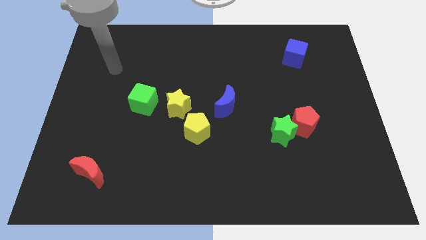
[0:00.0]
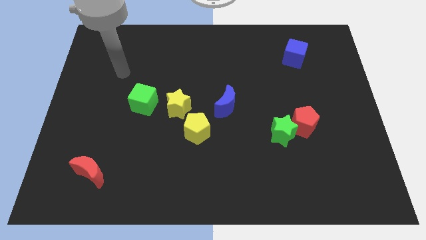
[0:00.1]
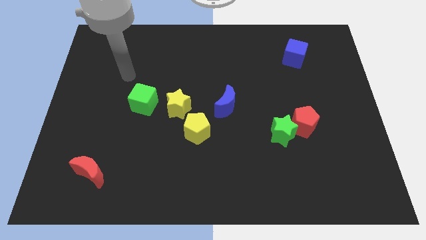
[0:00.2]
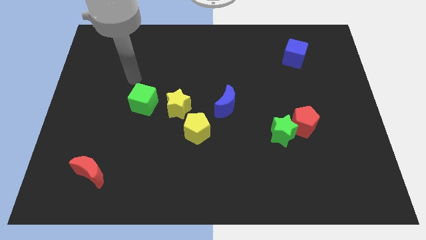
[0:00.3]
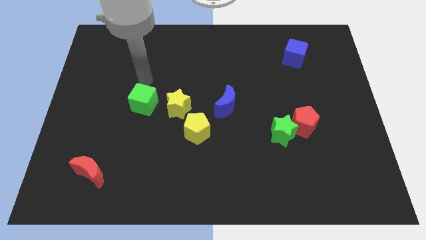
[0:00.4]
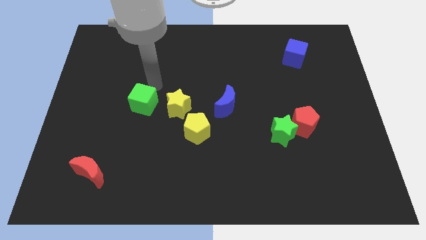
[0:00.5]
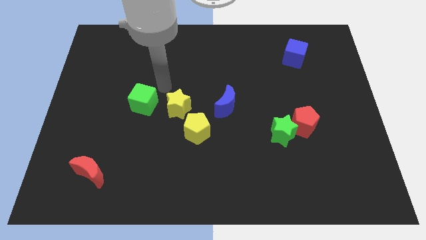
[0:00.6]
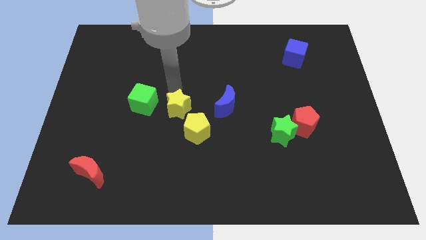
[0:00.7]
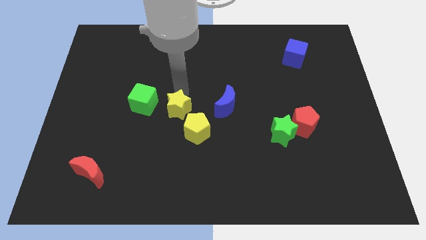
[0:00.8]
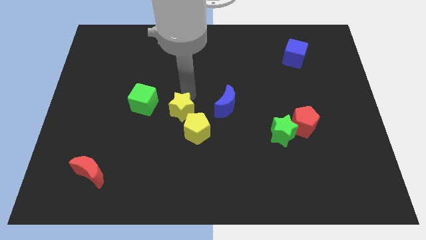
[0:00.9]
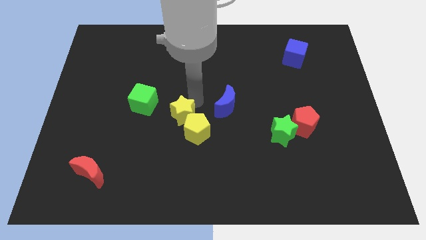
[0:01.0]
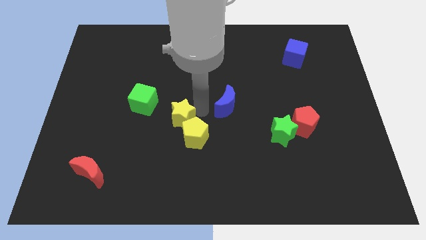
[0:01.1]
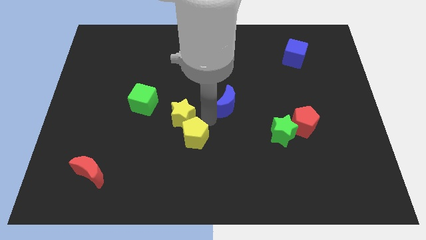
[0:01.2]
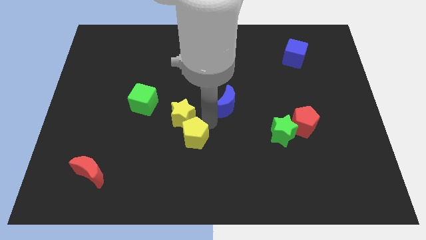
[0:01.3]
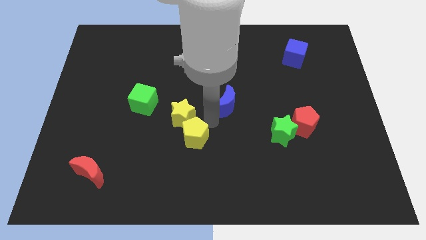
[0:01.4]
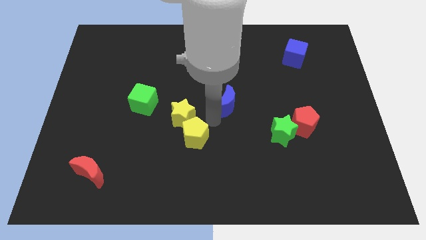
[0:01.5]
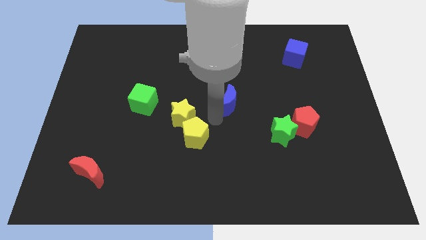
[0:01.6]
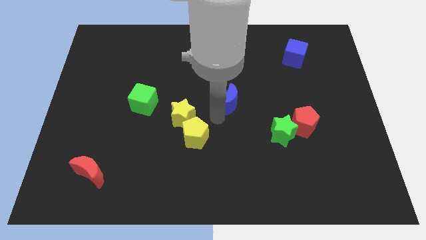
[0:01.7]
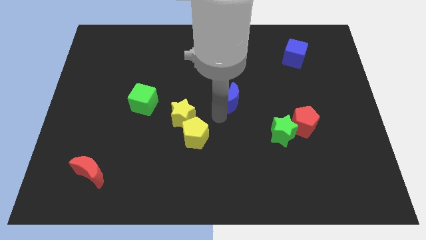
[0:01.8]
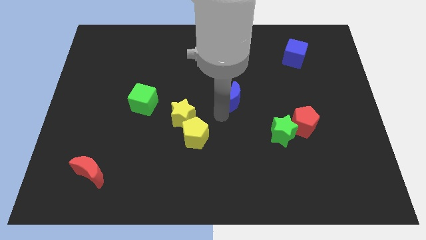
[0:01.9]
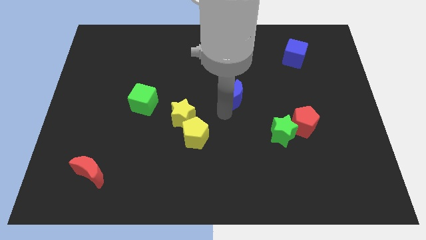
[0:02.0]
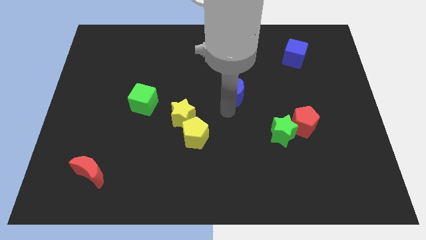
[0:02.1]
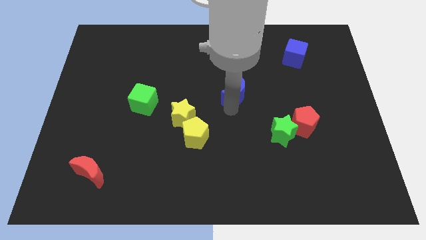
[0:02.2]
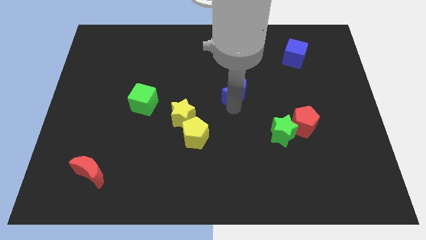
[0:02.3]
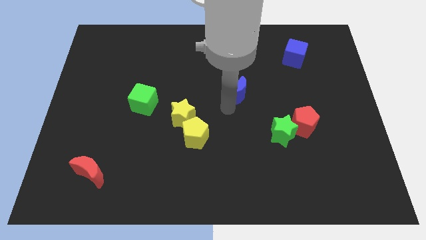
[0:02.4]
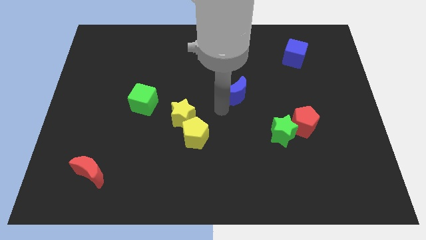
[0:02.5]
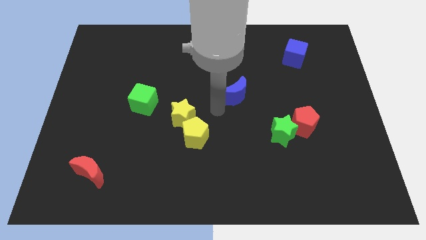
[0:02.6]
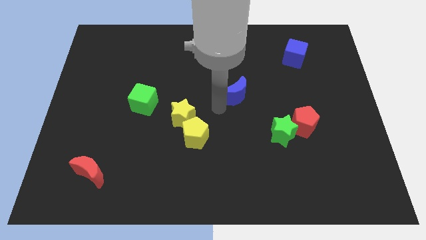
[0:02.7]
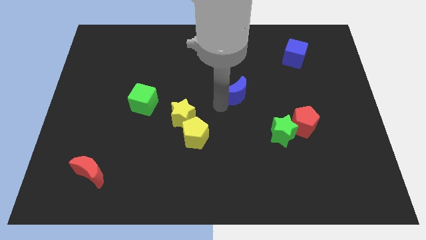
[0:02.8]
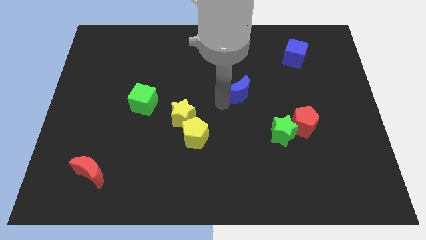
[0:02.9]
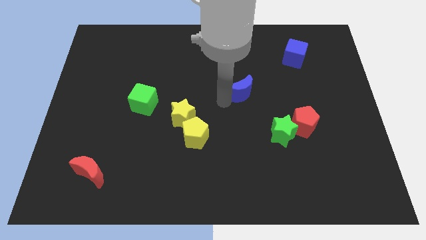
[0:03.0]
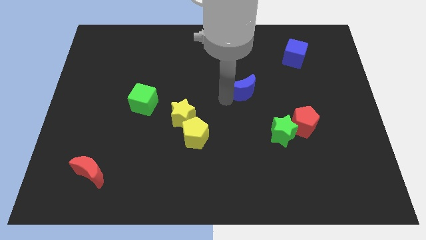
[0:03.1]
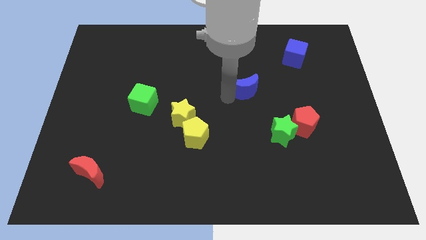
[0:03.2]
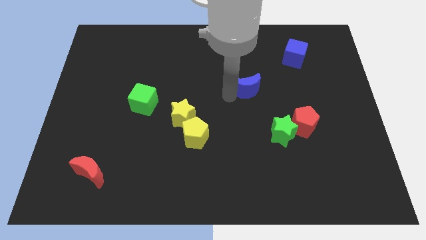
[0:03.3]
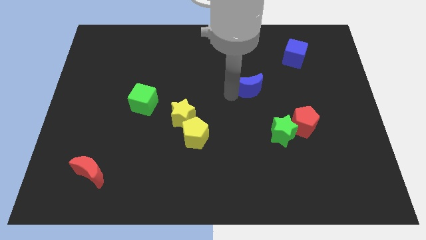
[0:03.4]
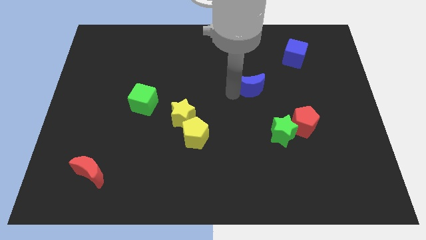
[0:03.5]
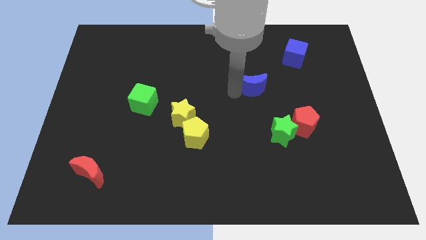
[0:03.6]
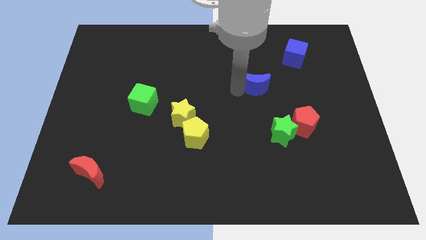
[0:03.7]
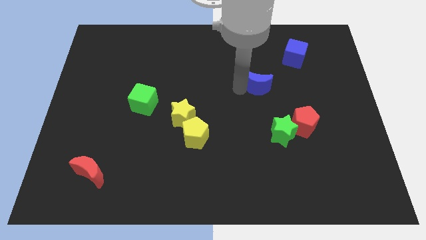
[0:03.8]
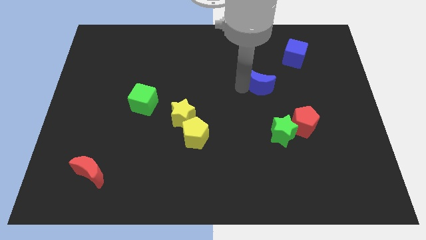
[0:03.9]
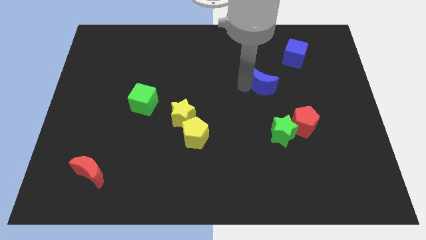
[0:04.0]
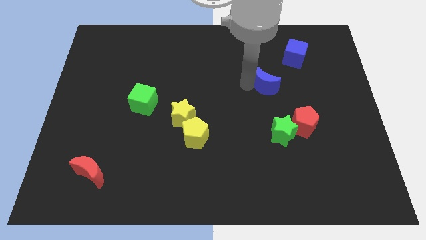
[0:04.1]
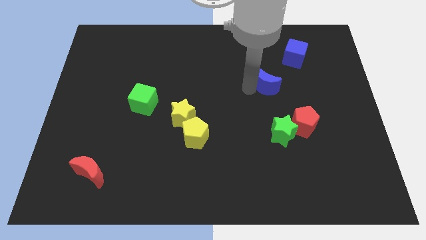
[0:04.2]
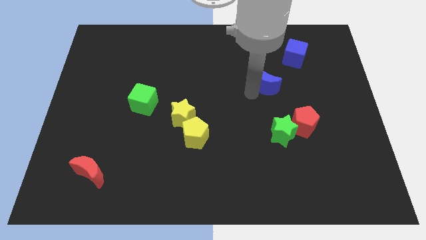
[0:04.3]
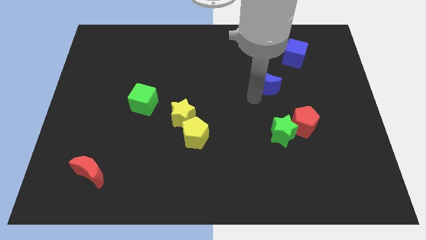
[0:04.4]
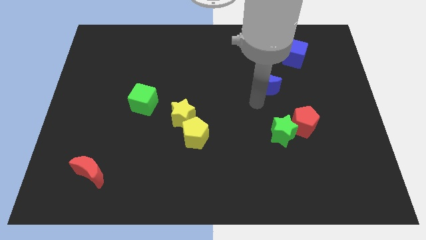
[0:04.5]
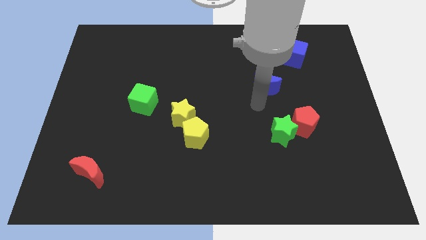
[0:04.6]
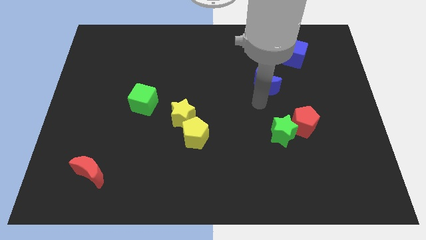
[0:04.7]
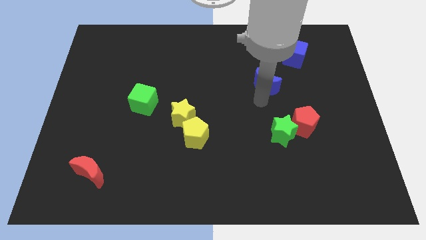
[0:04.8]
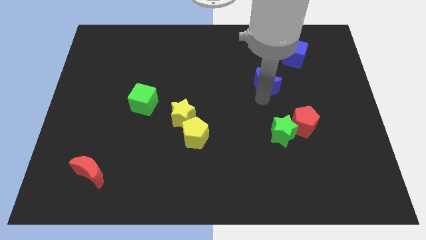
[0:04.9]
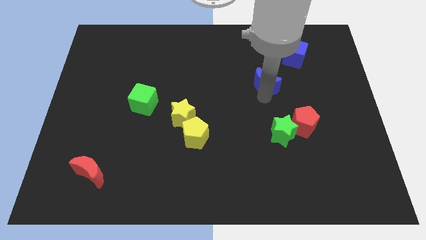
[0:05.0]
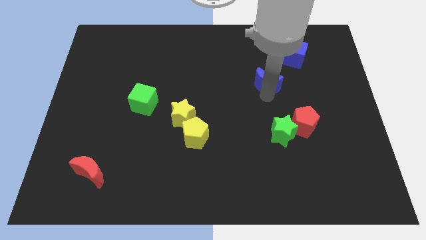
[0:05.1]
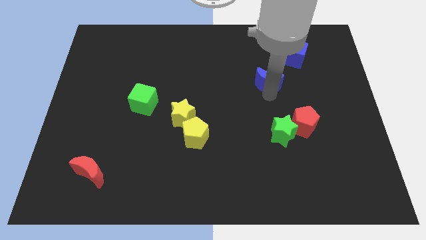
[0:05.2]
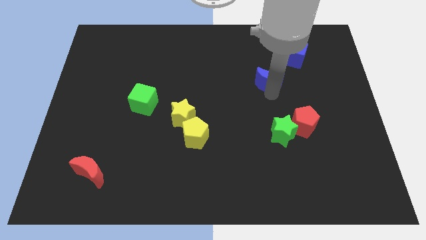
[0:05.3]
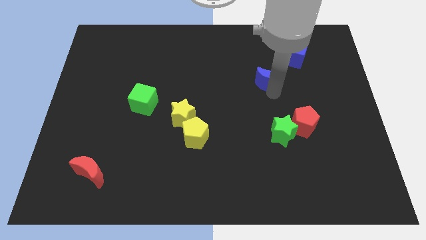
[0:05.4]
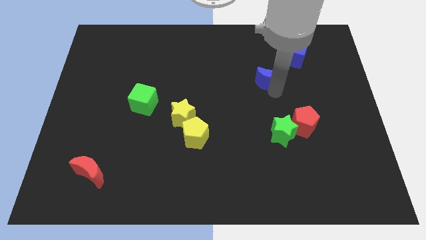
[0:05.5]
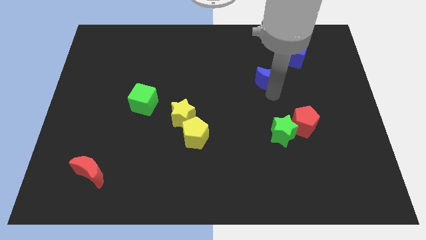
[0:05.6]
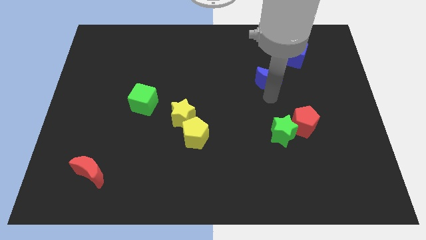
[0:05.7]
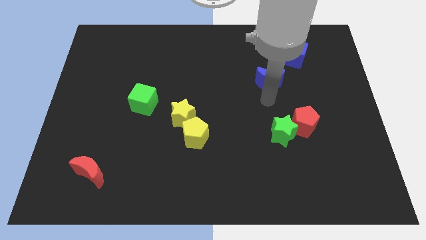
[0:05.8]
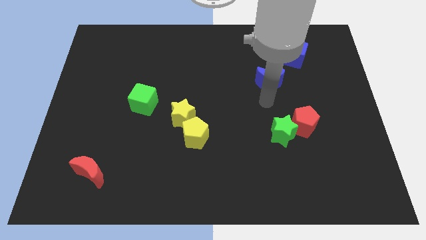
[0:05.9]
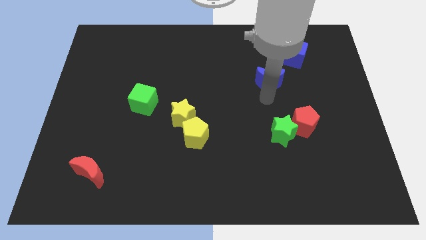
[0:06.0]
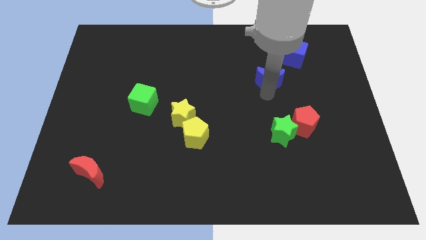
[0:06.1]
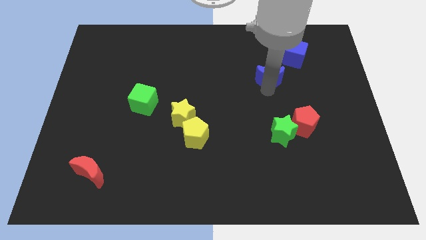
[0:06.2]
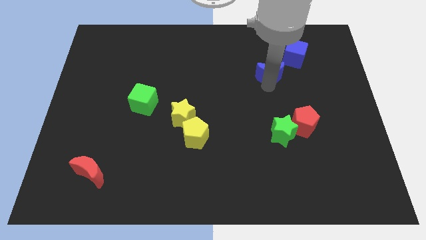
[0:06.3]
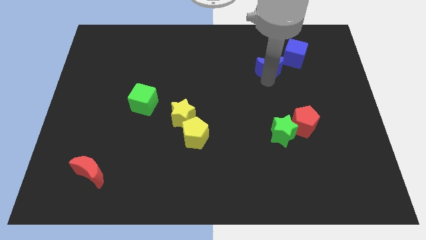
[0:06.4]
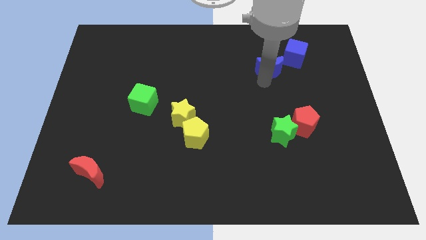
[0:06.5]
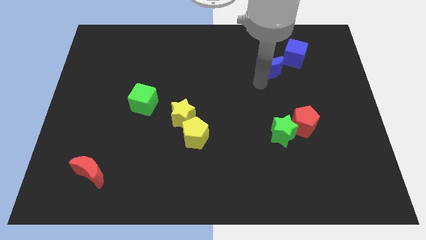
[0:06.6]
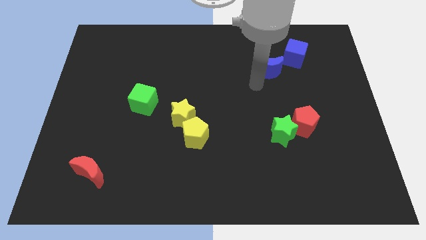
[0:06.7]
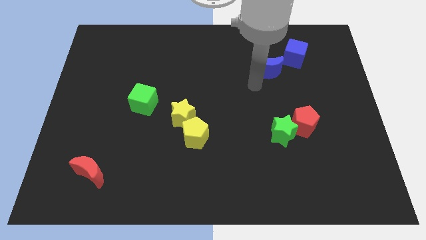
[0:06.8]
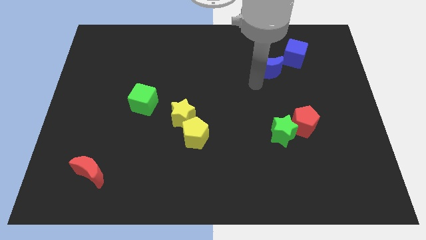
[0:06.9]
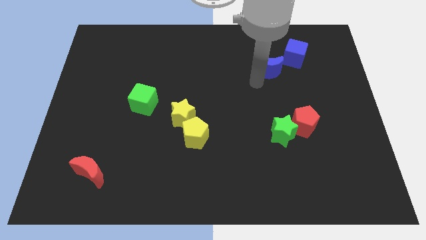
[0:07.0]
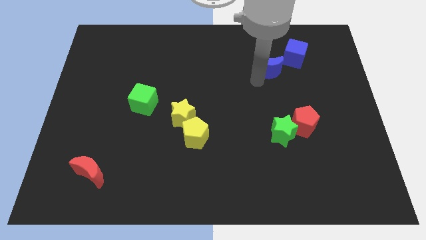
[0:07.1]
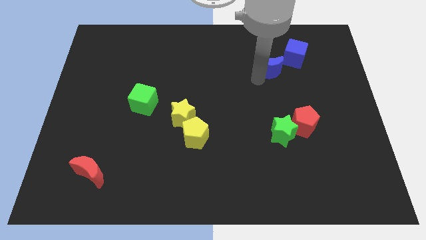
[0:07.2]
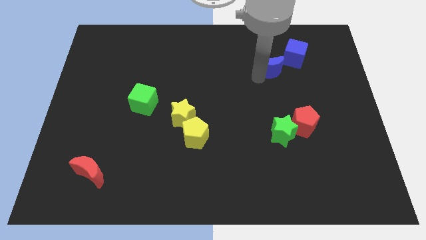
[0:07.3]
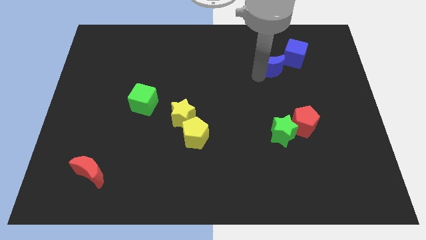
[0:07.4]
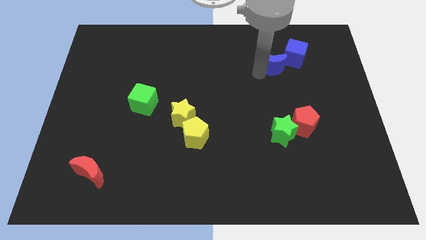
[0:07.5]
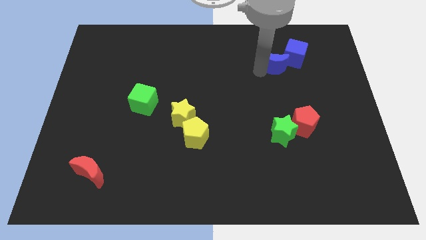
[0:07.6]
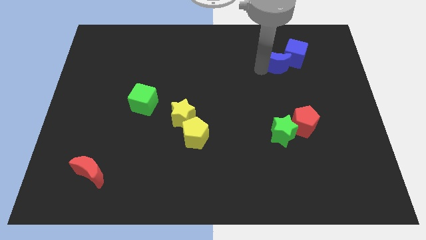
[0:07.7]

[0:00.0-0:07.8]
put the blue moon next to the blue cube
